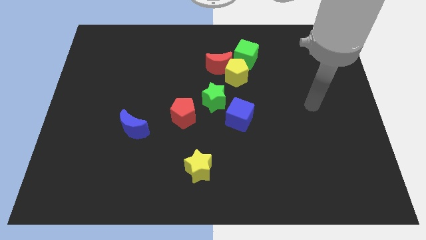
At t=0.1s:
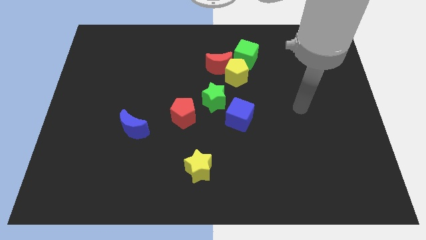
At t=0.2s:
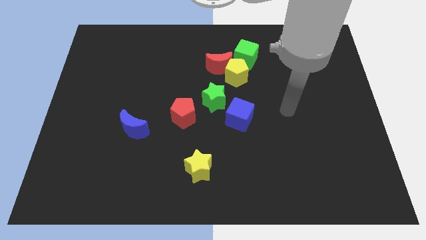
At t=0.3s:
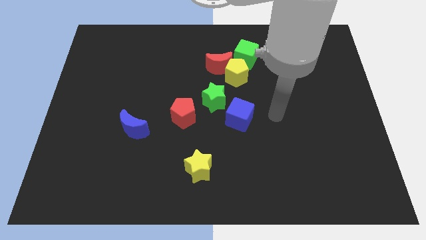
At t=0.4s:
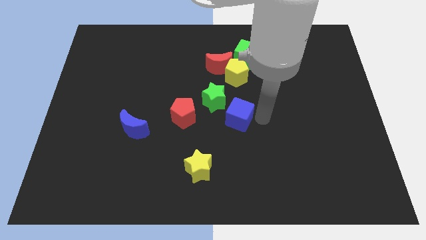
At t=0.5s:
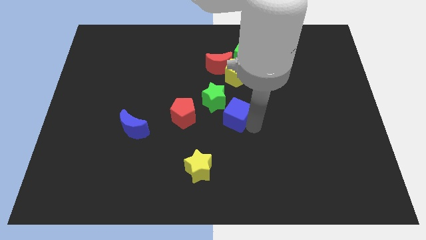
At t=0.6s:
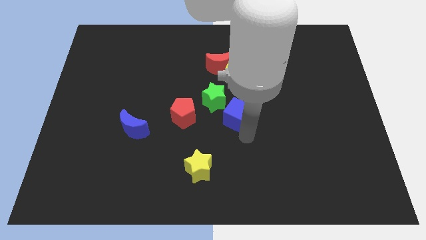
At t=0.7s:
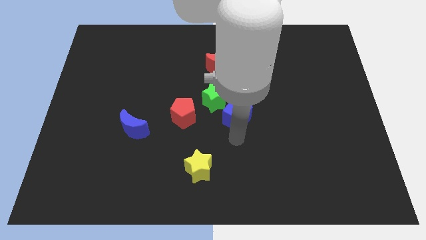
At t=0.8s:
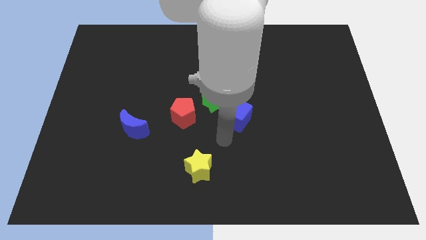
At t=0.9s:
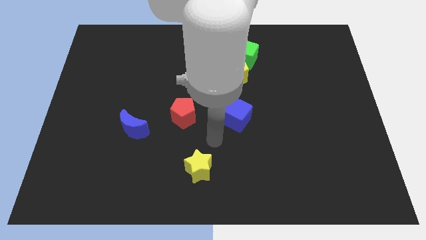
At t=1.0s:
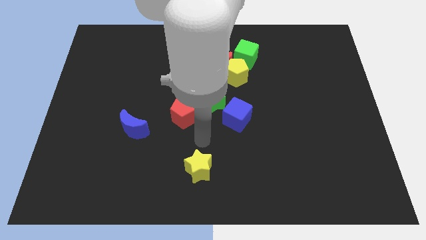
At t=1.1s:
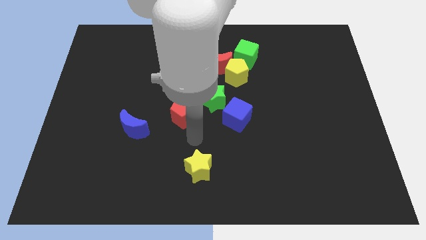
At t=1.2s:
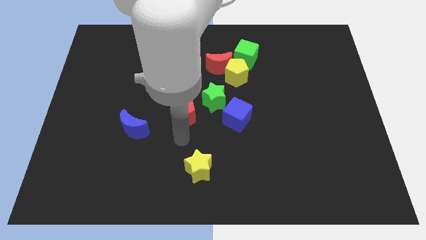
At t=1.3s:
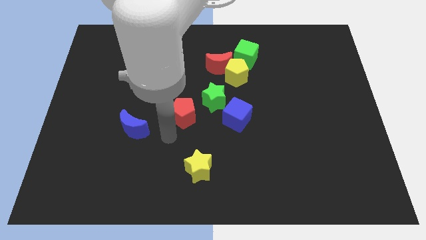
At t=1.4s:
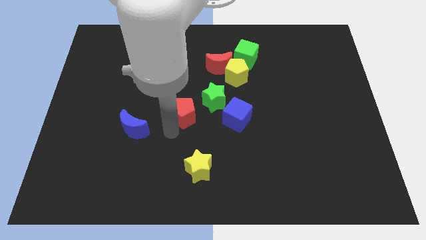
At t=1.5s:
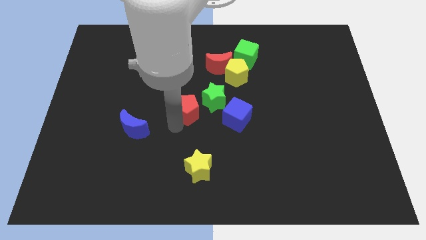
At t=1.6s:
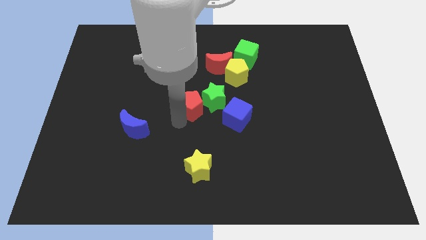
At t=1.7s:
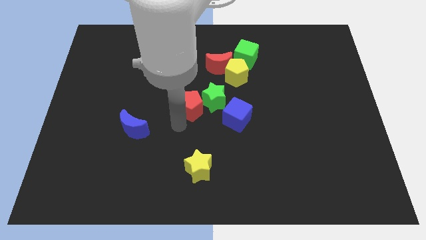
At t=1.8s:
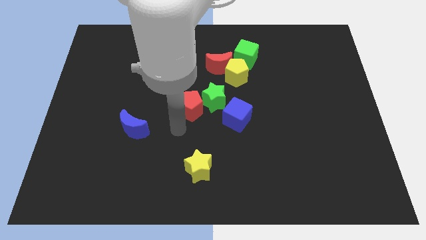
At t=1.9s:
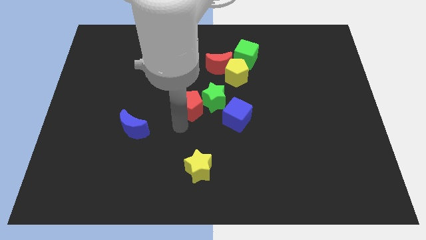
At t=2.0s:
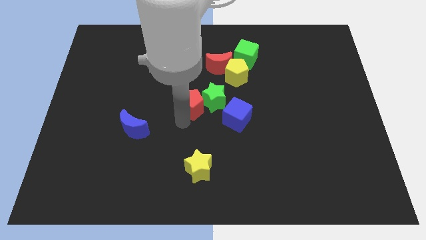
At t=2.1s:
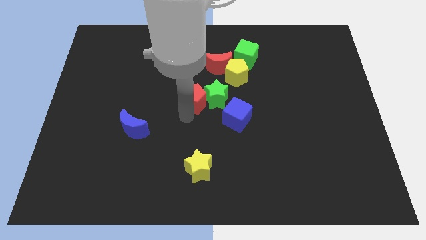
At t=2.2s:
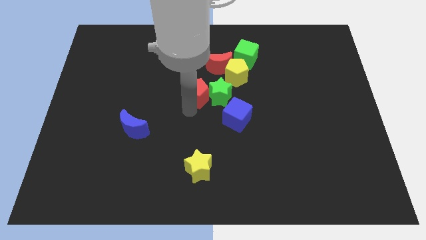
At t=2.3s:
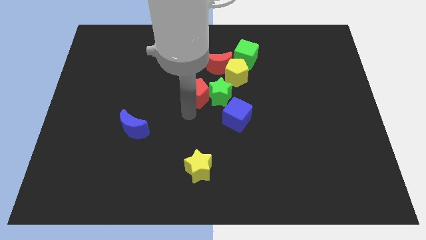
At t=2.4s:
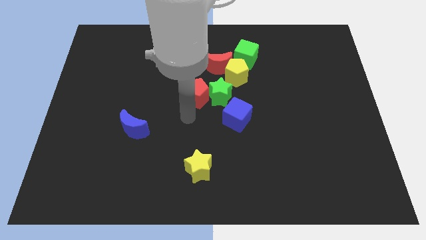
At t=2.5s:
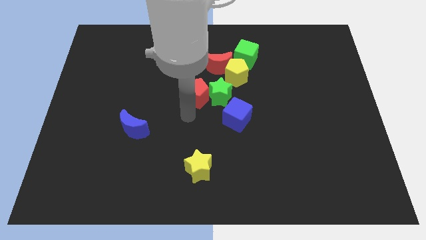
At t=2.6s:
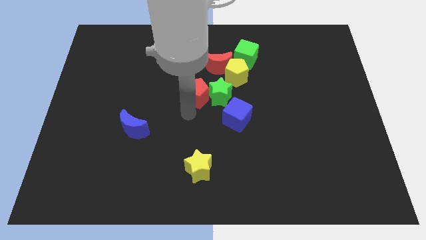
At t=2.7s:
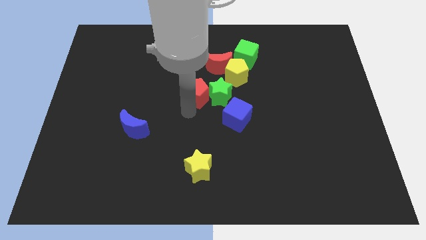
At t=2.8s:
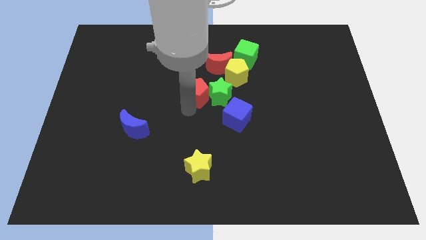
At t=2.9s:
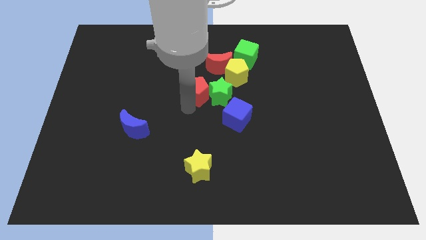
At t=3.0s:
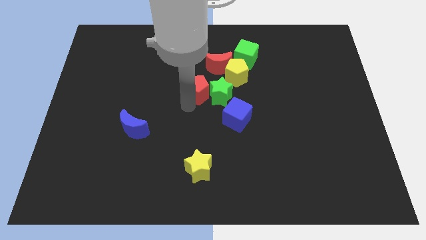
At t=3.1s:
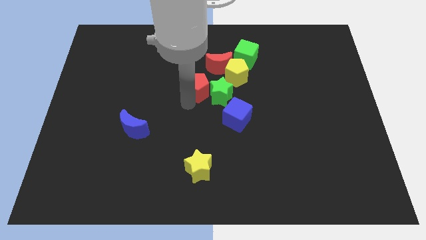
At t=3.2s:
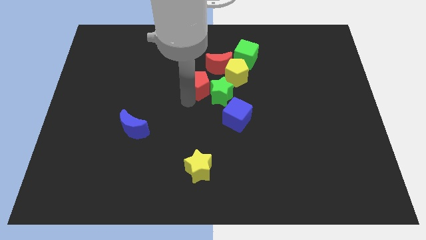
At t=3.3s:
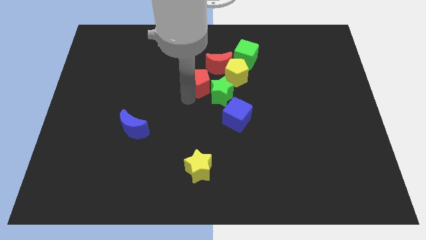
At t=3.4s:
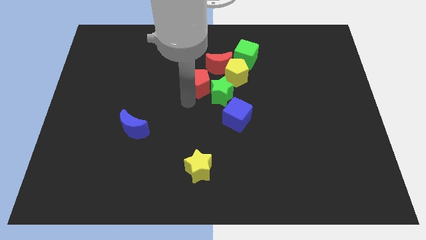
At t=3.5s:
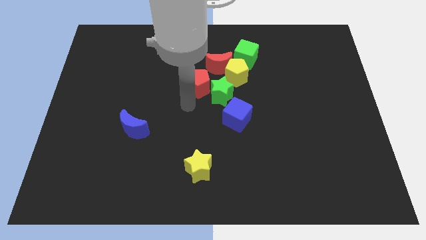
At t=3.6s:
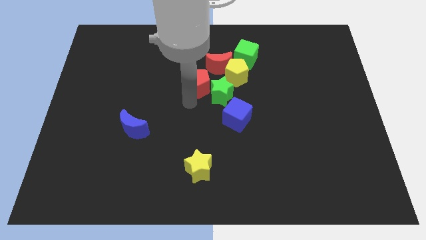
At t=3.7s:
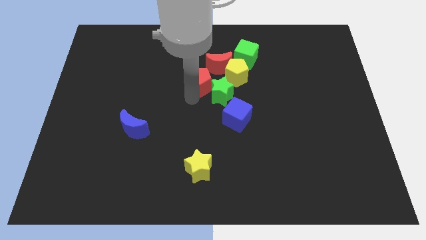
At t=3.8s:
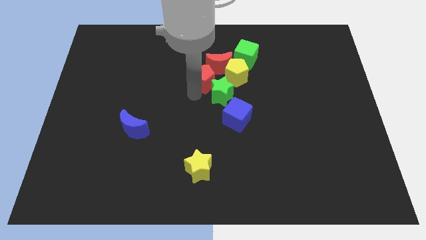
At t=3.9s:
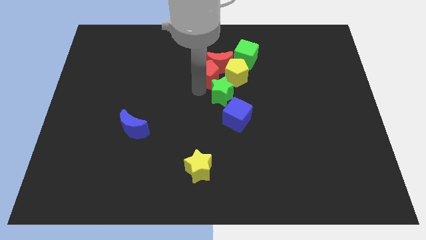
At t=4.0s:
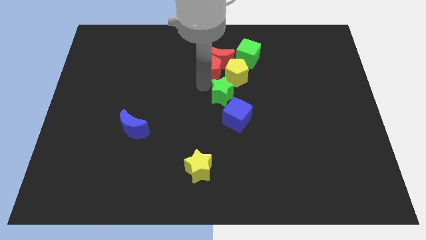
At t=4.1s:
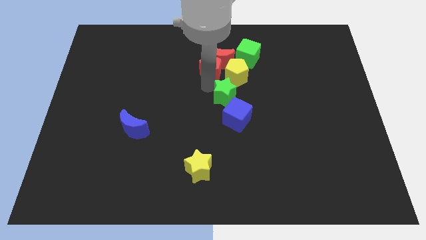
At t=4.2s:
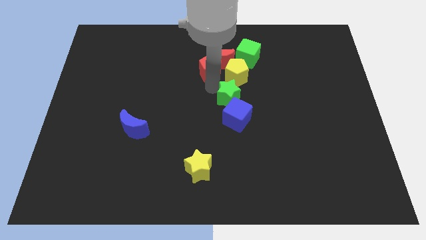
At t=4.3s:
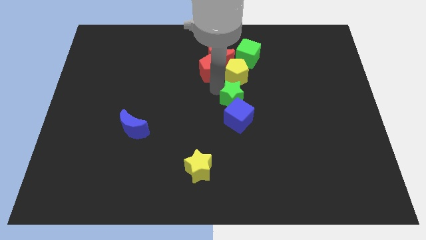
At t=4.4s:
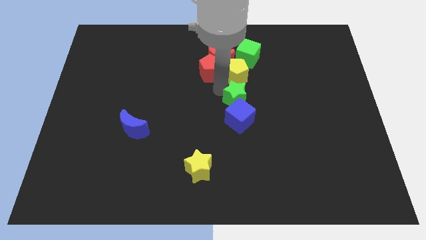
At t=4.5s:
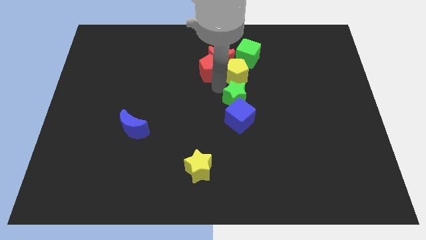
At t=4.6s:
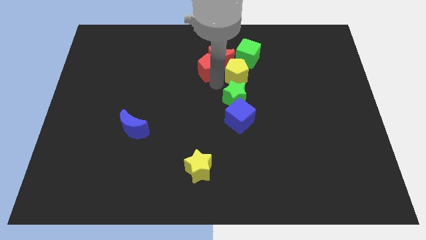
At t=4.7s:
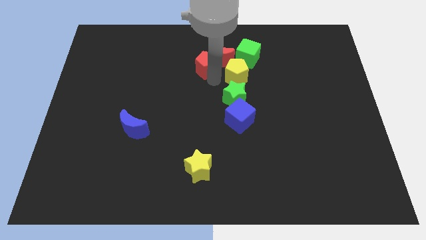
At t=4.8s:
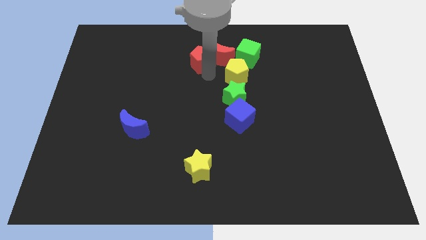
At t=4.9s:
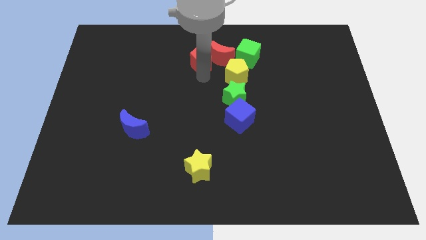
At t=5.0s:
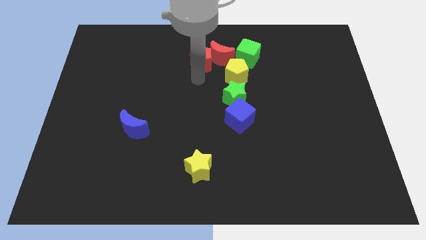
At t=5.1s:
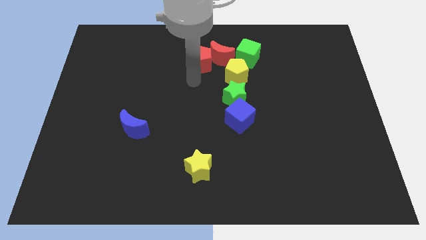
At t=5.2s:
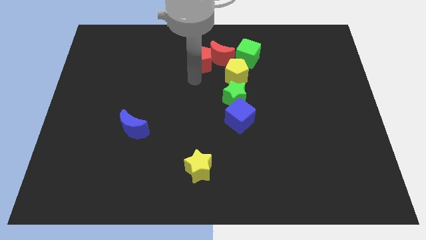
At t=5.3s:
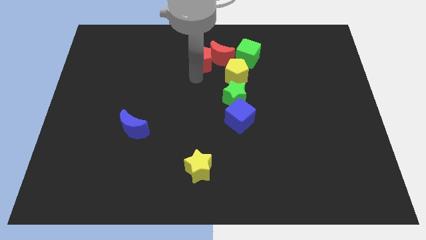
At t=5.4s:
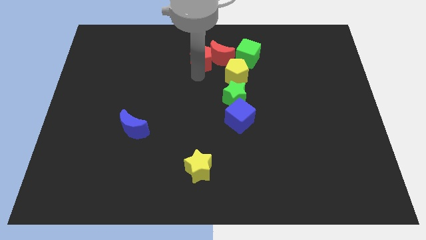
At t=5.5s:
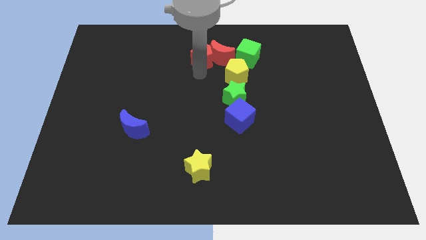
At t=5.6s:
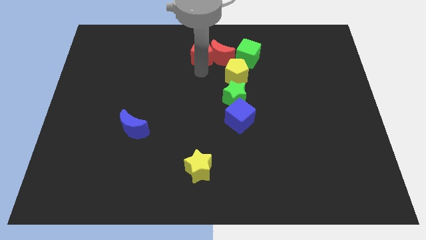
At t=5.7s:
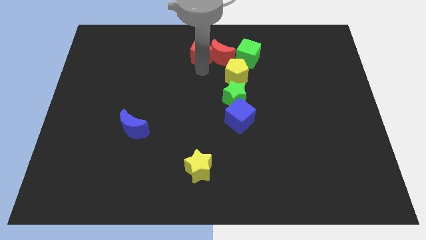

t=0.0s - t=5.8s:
put the red pentagon to the top side

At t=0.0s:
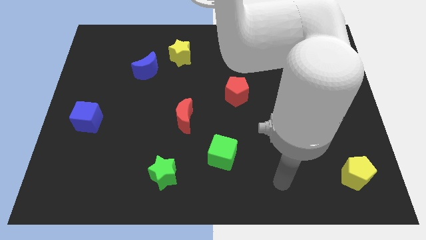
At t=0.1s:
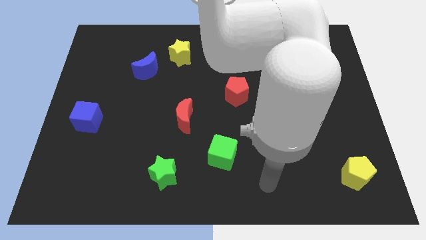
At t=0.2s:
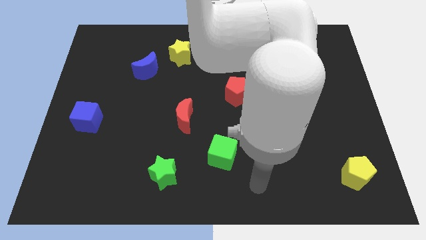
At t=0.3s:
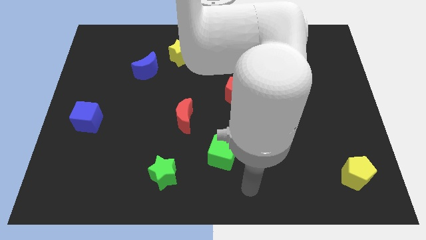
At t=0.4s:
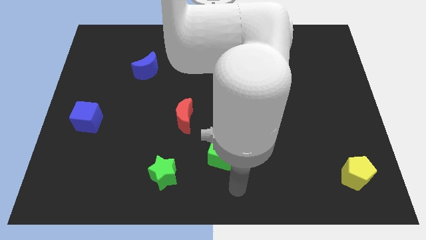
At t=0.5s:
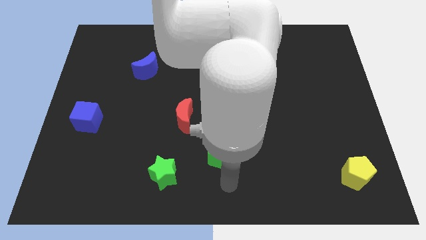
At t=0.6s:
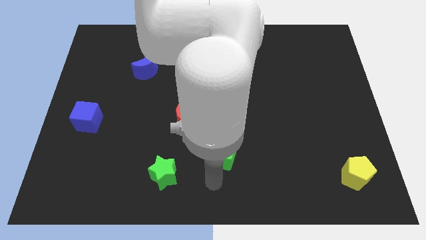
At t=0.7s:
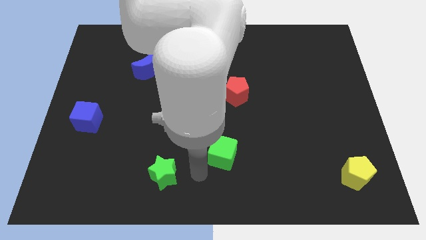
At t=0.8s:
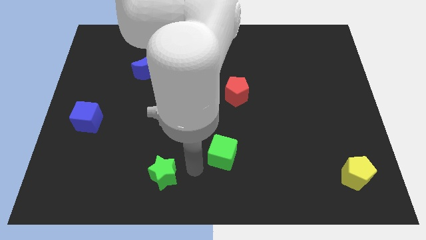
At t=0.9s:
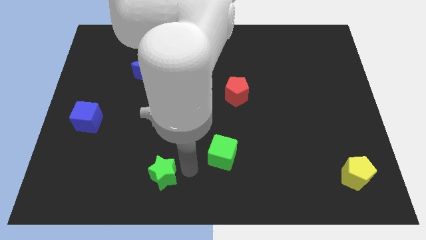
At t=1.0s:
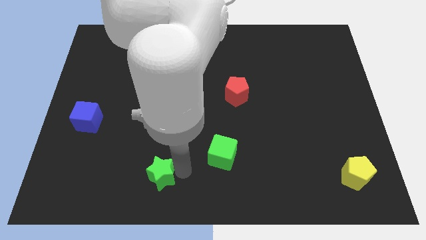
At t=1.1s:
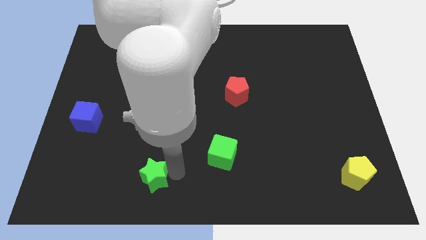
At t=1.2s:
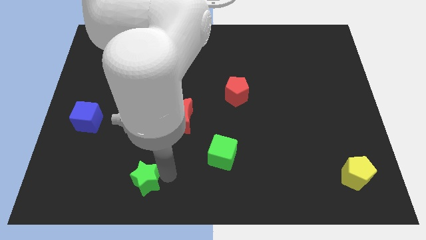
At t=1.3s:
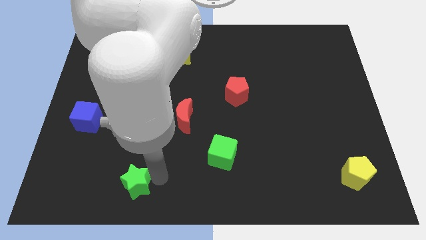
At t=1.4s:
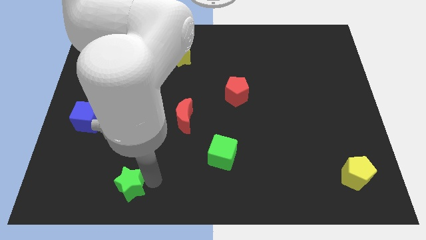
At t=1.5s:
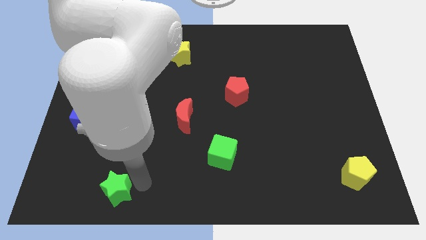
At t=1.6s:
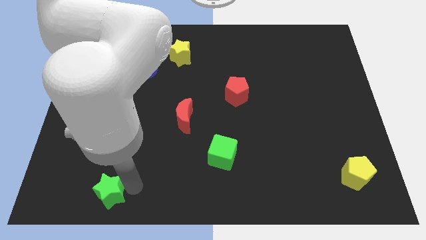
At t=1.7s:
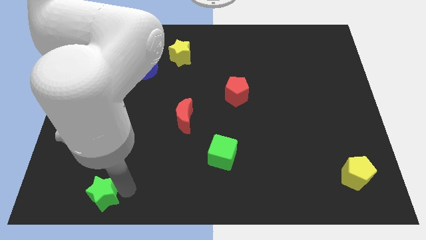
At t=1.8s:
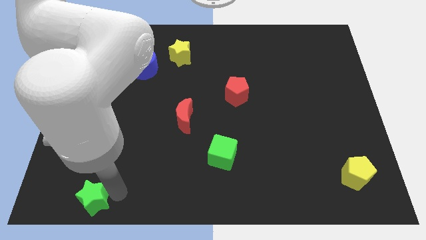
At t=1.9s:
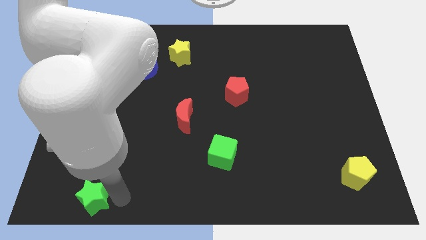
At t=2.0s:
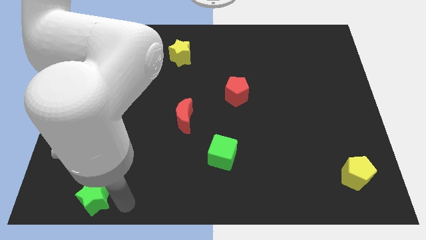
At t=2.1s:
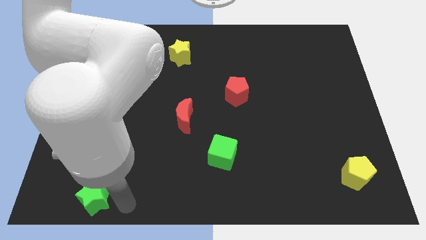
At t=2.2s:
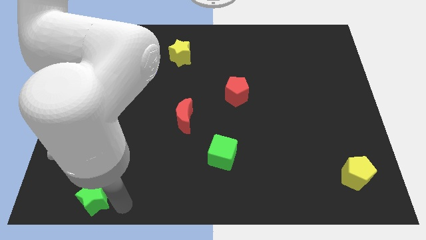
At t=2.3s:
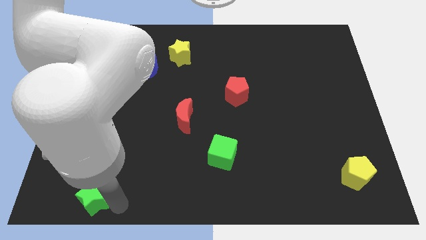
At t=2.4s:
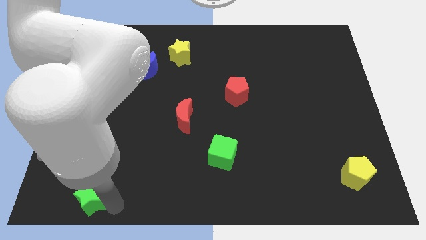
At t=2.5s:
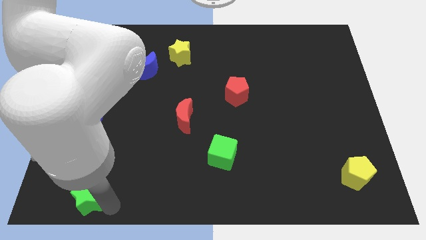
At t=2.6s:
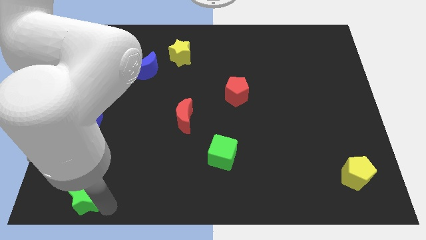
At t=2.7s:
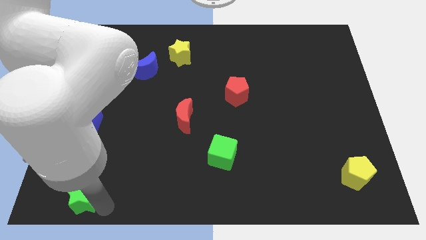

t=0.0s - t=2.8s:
put the green star to the lower left corner
